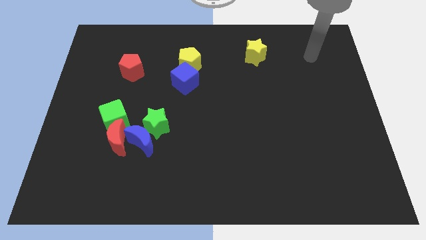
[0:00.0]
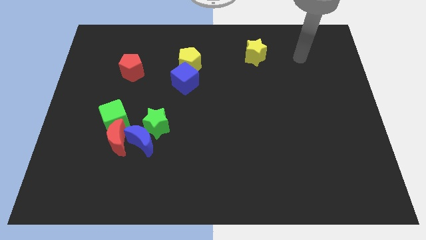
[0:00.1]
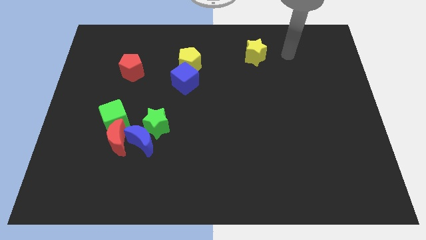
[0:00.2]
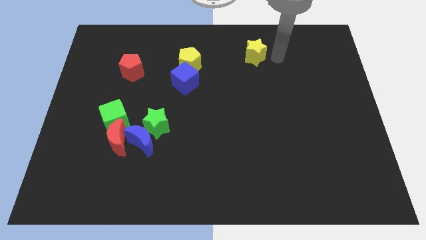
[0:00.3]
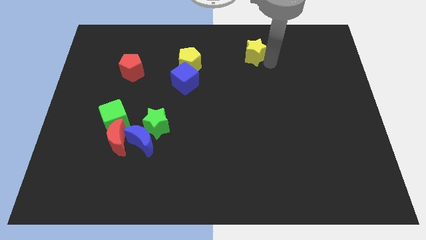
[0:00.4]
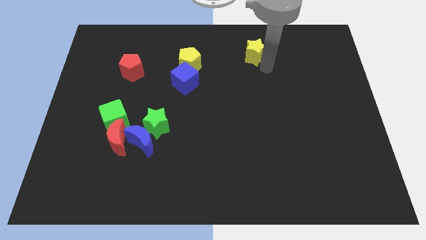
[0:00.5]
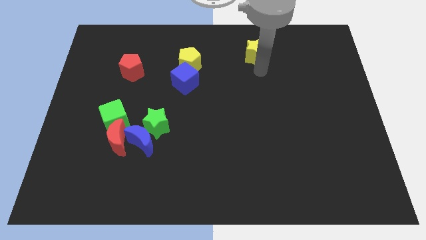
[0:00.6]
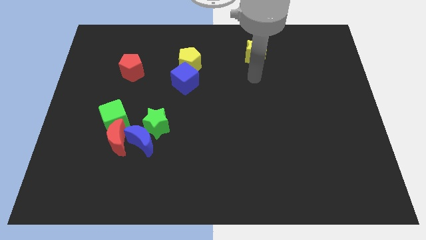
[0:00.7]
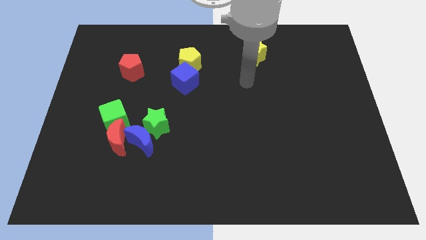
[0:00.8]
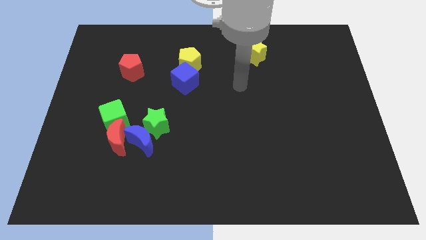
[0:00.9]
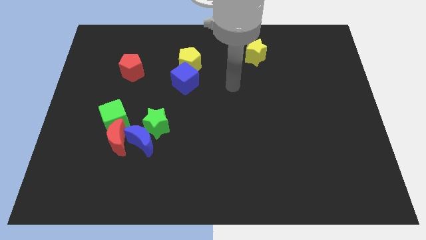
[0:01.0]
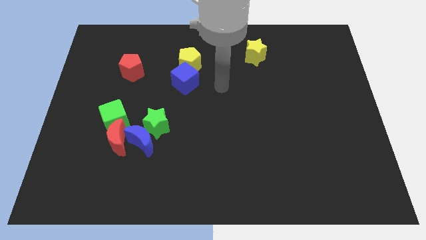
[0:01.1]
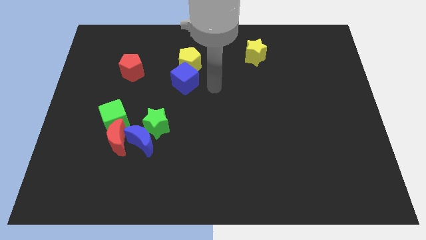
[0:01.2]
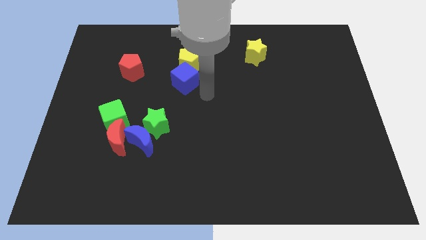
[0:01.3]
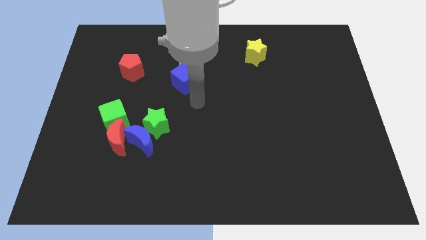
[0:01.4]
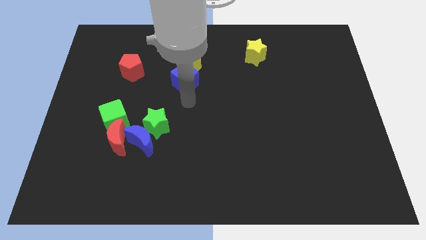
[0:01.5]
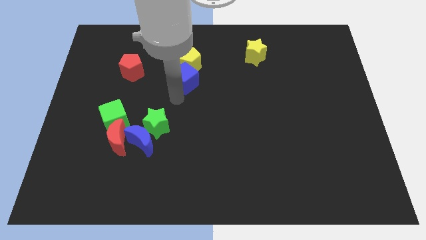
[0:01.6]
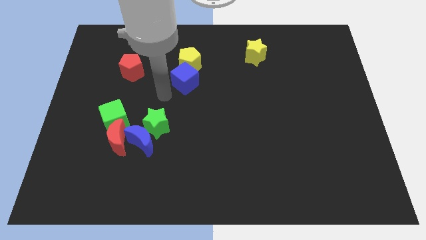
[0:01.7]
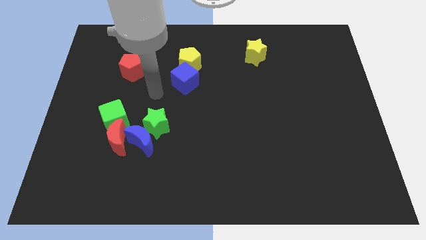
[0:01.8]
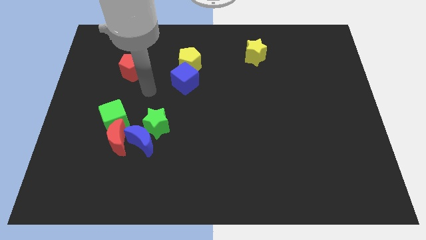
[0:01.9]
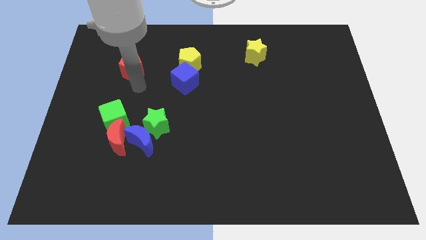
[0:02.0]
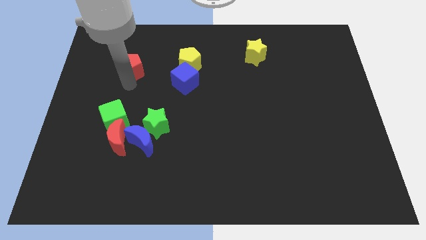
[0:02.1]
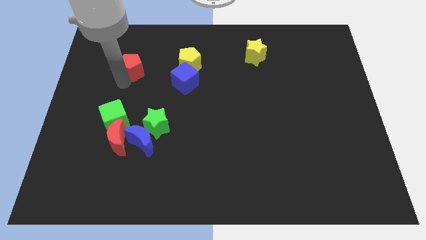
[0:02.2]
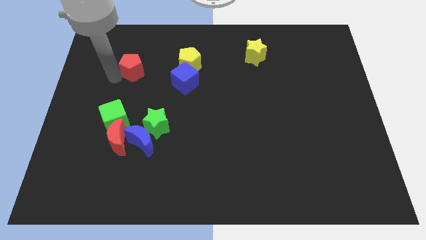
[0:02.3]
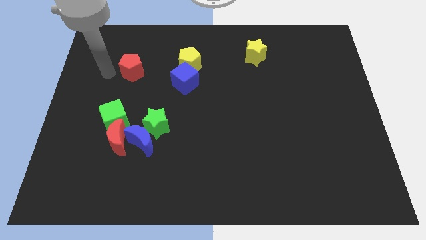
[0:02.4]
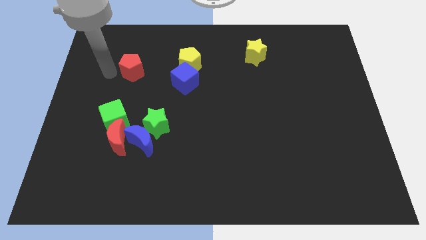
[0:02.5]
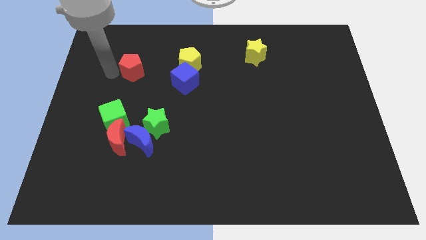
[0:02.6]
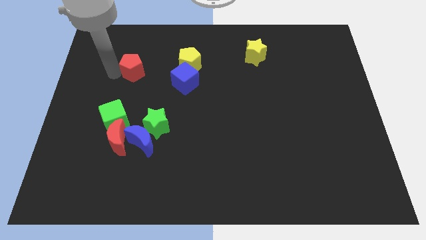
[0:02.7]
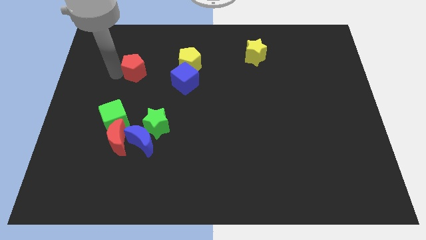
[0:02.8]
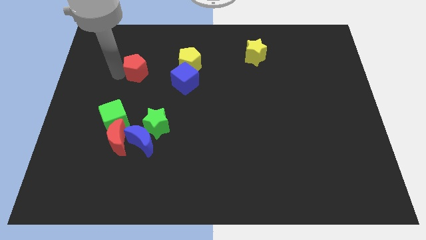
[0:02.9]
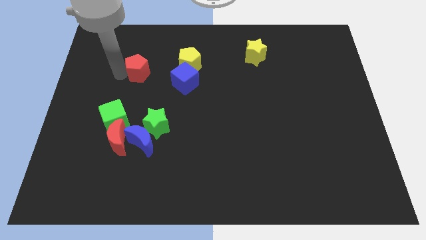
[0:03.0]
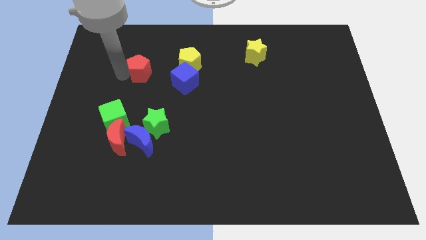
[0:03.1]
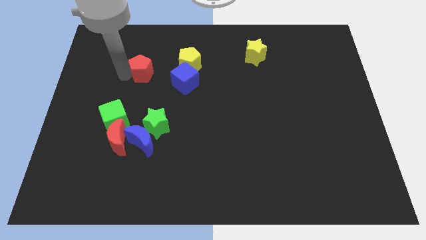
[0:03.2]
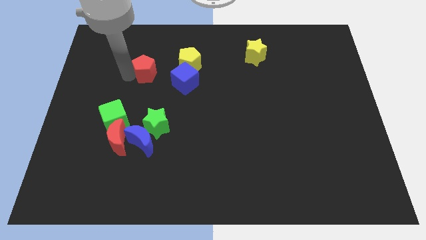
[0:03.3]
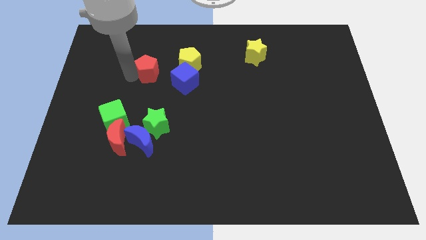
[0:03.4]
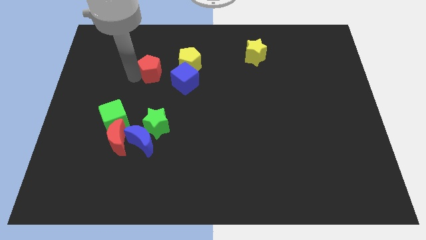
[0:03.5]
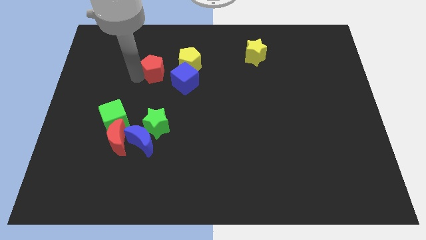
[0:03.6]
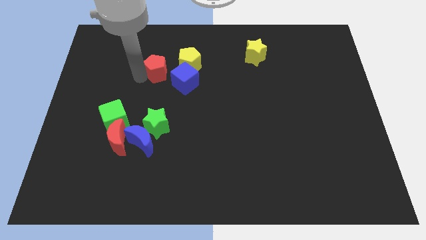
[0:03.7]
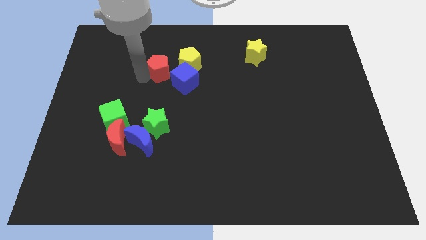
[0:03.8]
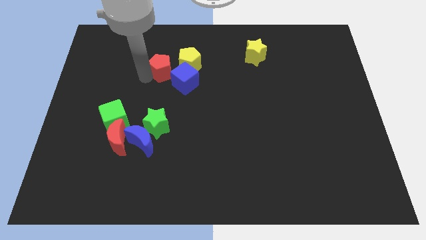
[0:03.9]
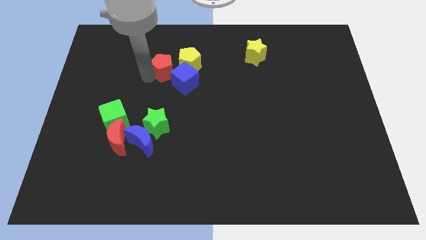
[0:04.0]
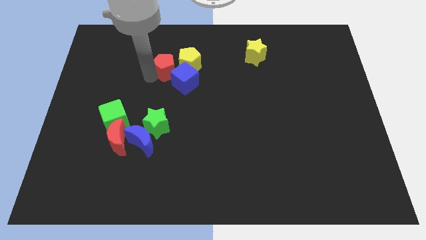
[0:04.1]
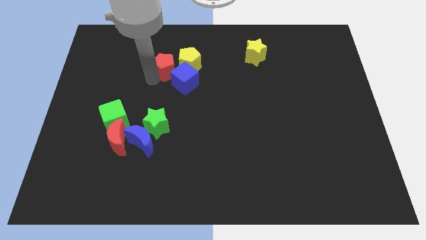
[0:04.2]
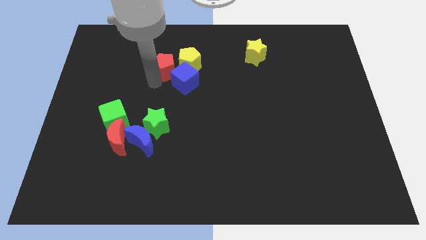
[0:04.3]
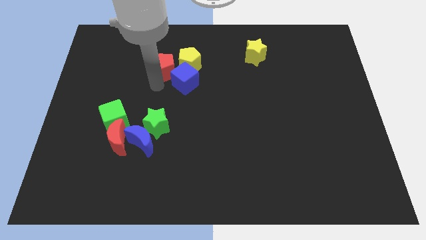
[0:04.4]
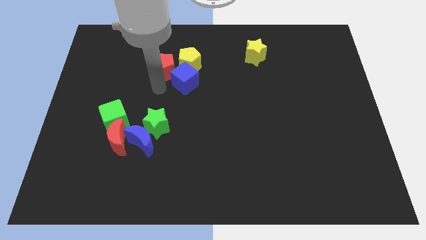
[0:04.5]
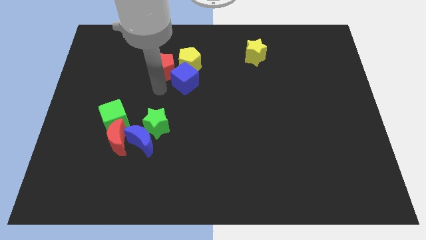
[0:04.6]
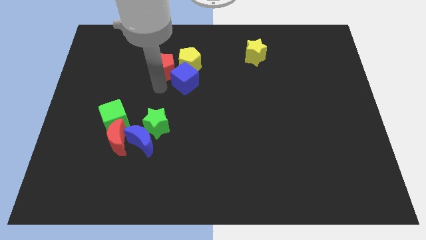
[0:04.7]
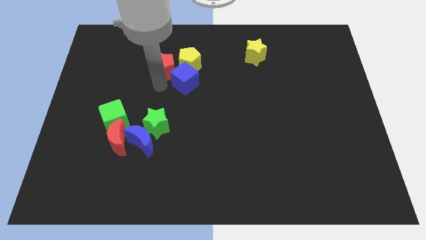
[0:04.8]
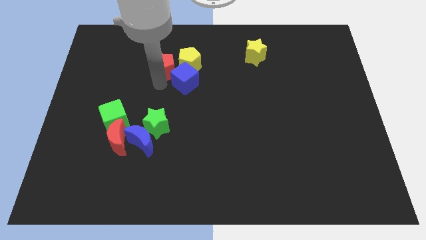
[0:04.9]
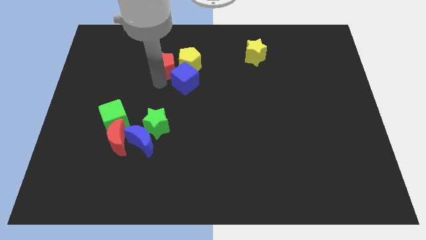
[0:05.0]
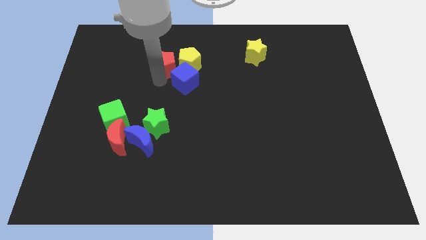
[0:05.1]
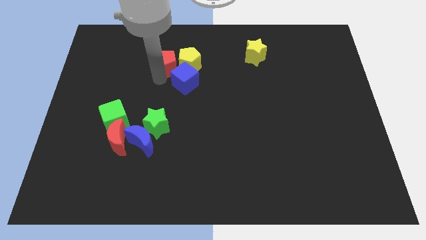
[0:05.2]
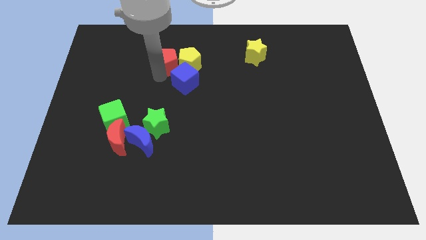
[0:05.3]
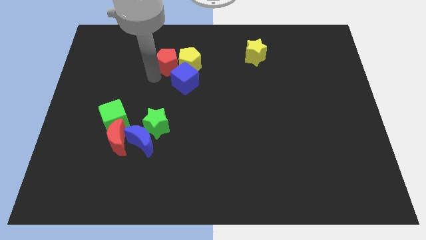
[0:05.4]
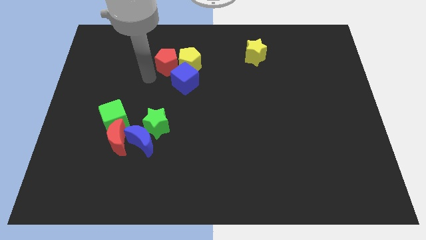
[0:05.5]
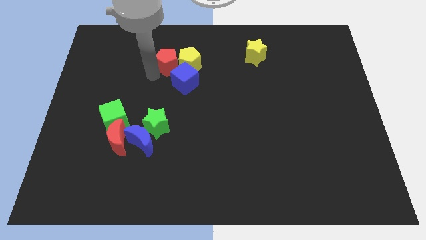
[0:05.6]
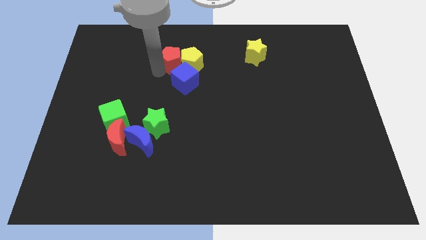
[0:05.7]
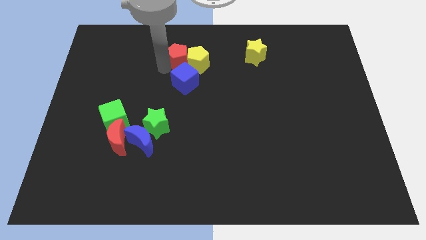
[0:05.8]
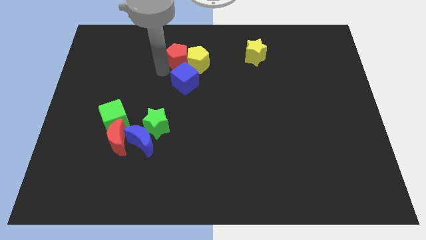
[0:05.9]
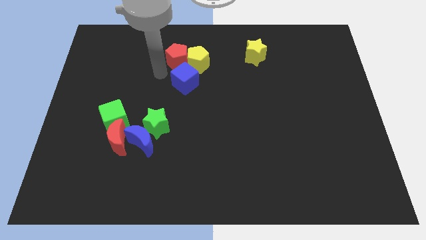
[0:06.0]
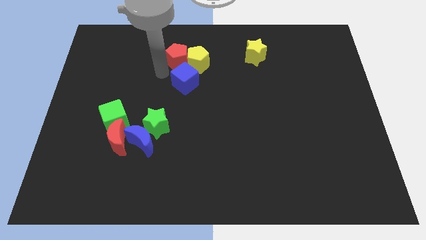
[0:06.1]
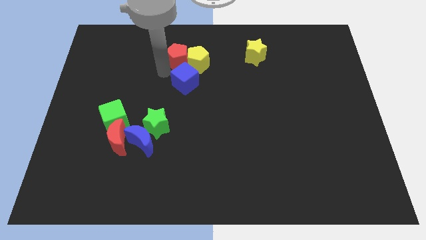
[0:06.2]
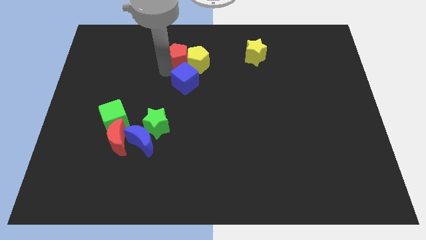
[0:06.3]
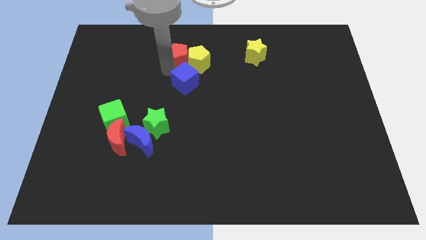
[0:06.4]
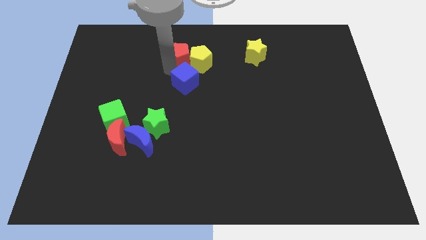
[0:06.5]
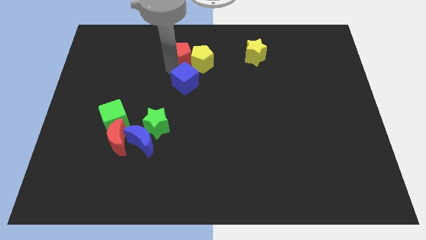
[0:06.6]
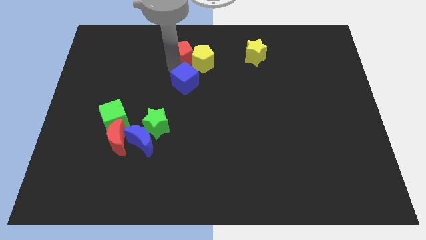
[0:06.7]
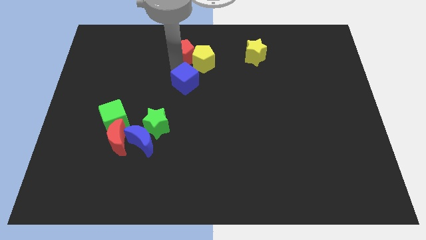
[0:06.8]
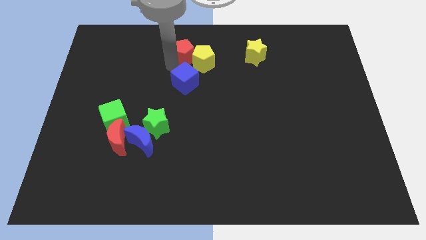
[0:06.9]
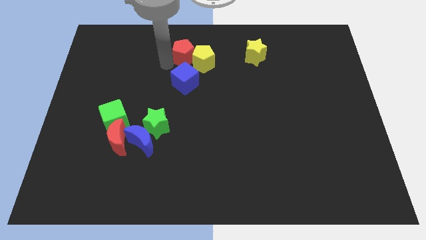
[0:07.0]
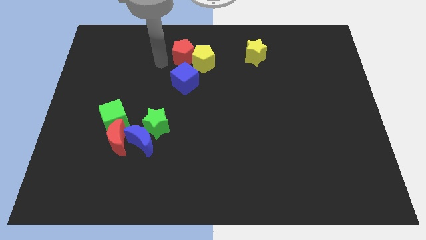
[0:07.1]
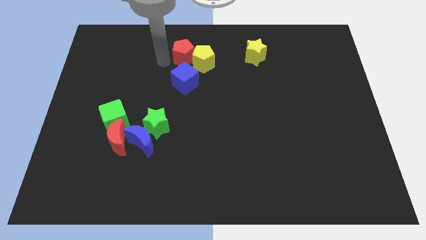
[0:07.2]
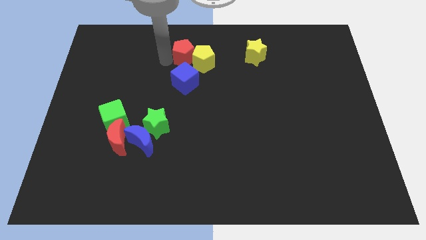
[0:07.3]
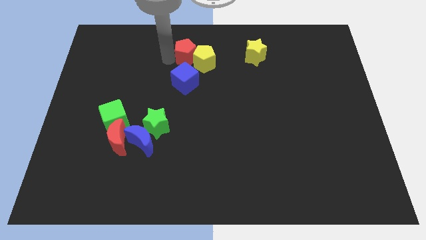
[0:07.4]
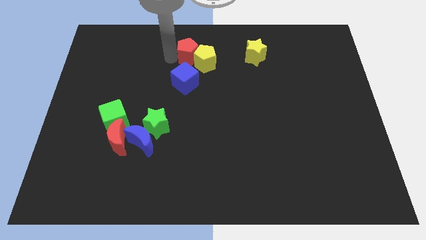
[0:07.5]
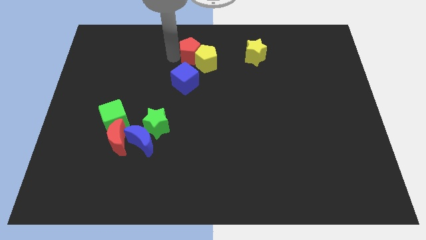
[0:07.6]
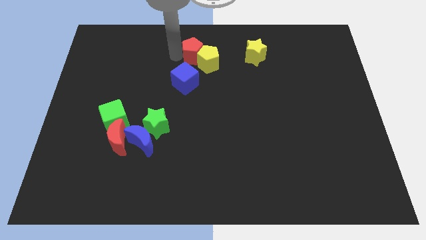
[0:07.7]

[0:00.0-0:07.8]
move the red pentagon to the top side
